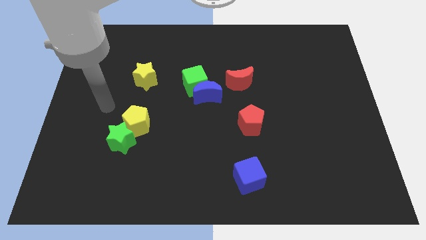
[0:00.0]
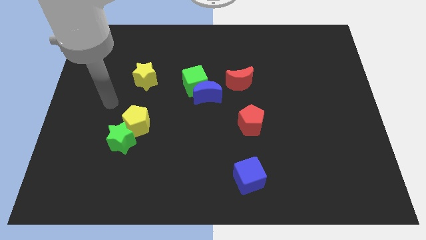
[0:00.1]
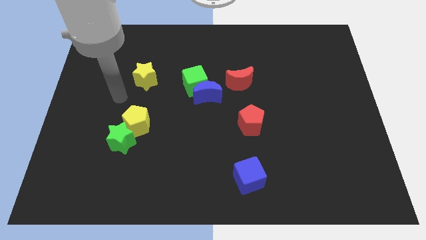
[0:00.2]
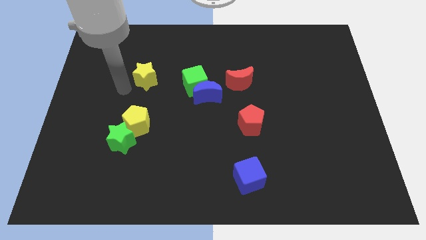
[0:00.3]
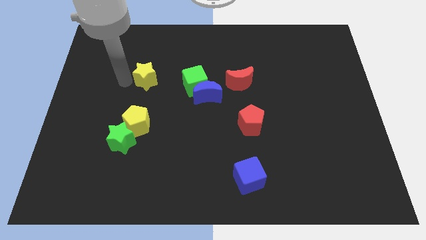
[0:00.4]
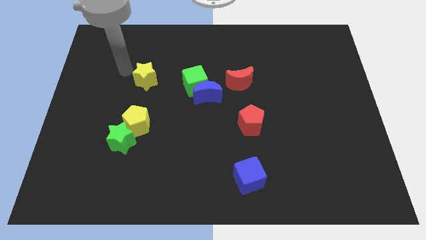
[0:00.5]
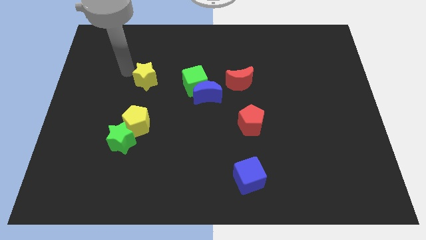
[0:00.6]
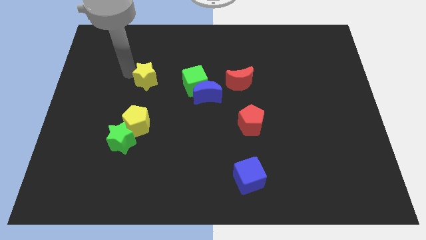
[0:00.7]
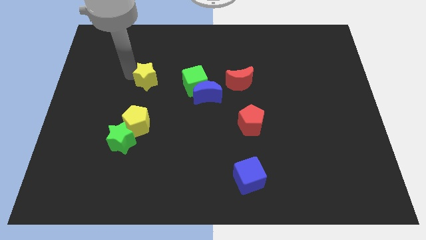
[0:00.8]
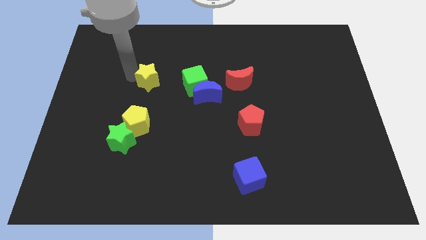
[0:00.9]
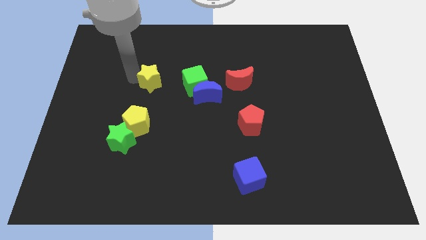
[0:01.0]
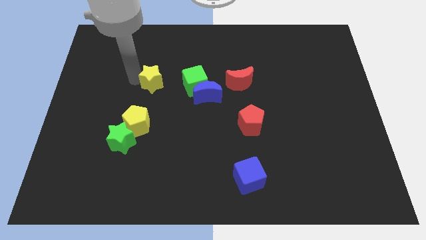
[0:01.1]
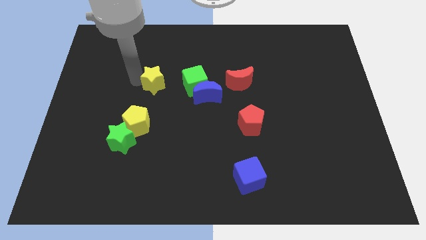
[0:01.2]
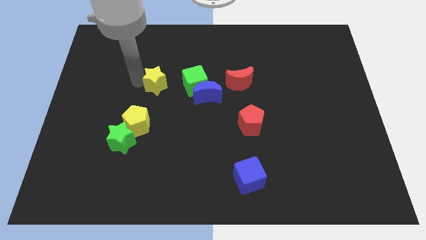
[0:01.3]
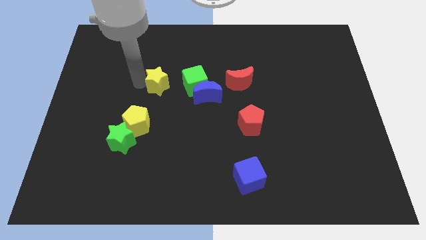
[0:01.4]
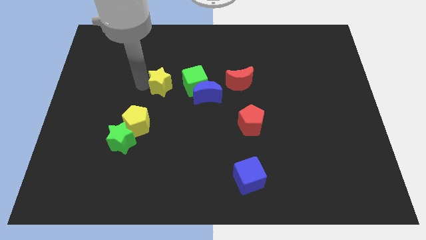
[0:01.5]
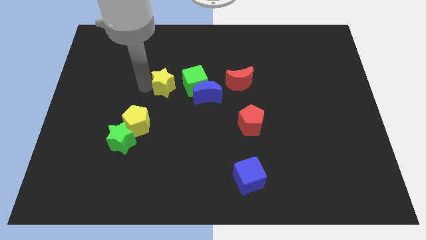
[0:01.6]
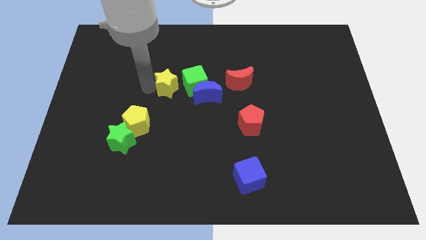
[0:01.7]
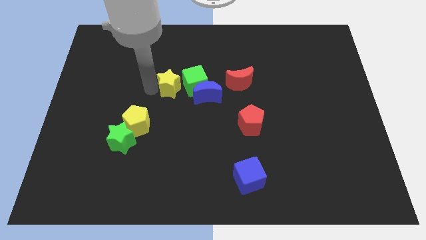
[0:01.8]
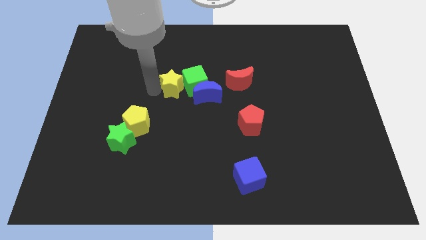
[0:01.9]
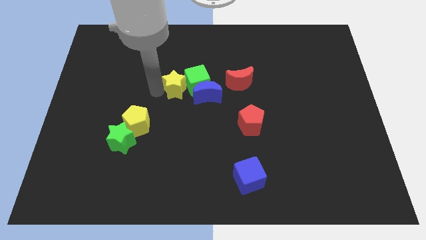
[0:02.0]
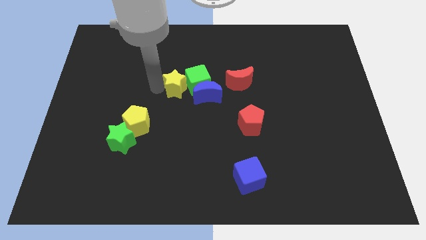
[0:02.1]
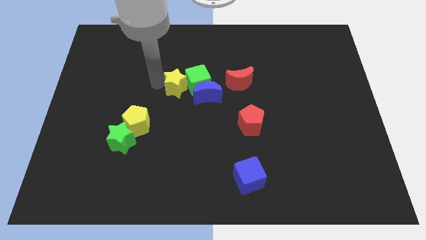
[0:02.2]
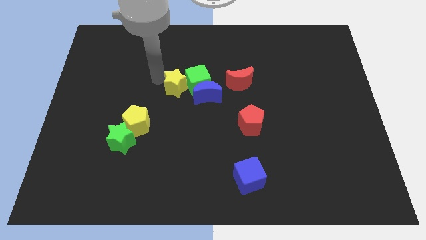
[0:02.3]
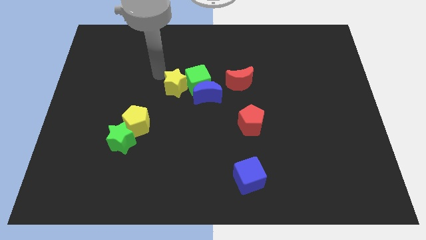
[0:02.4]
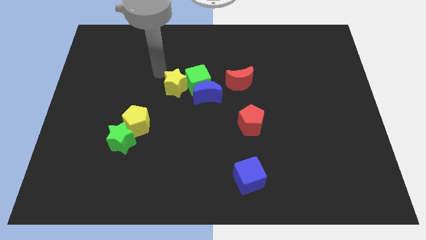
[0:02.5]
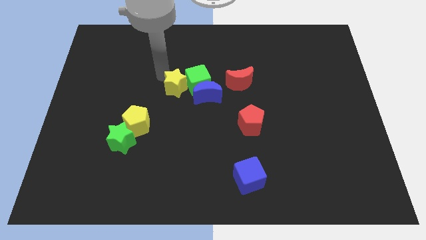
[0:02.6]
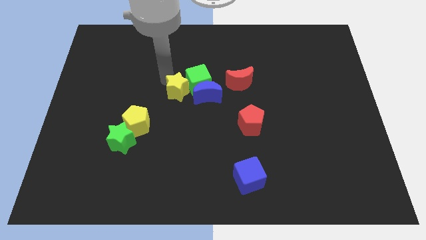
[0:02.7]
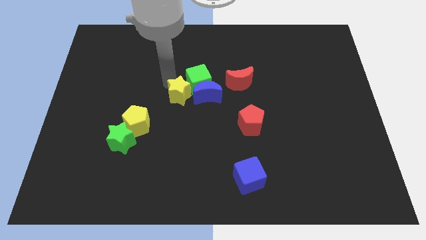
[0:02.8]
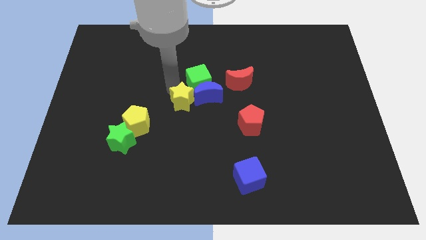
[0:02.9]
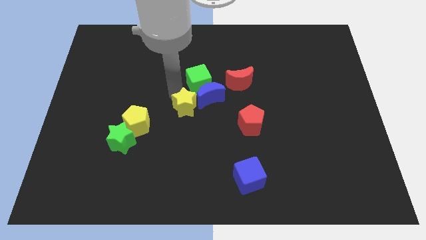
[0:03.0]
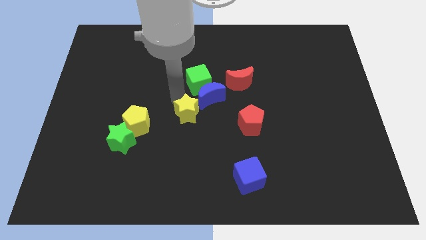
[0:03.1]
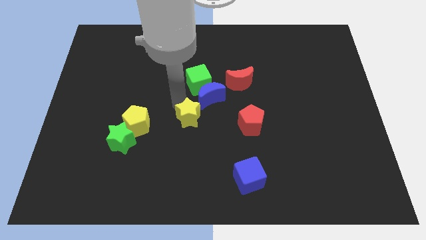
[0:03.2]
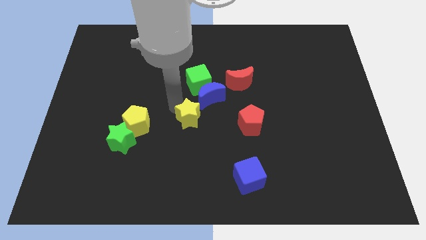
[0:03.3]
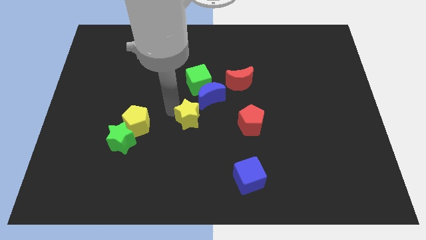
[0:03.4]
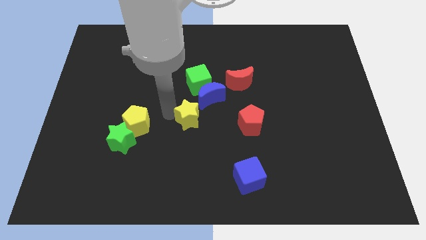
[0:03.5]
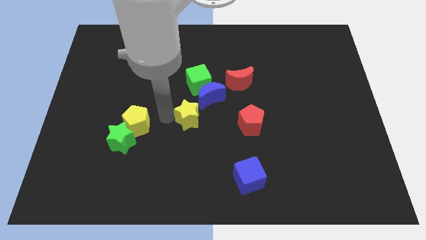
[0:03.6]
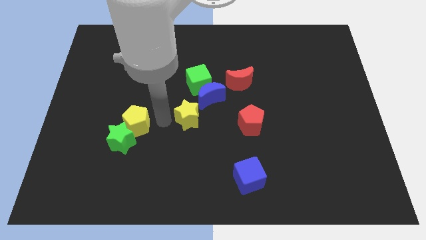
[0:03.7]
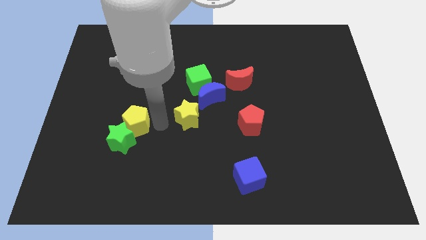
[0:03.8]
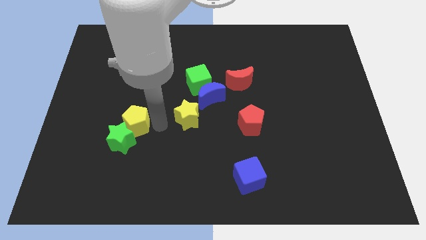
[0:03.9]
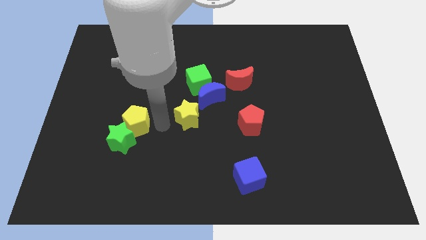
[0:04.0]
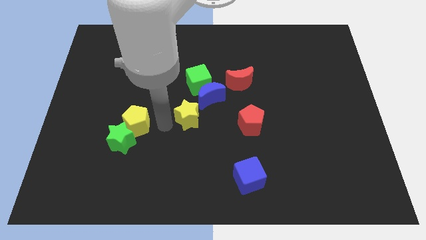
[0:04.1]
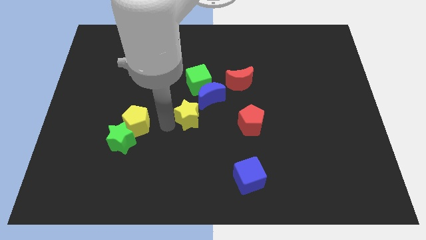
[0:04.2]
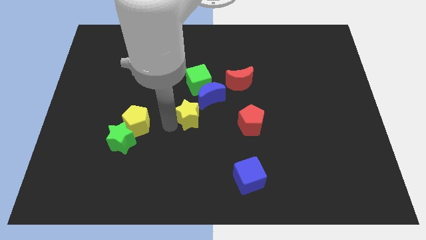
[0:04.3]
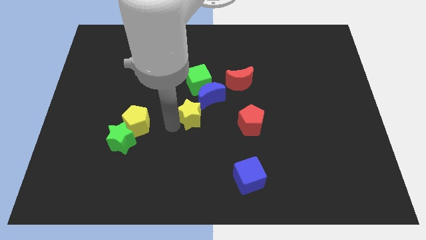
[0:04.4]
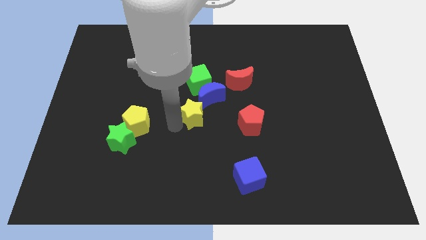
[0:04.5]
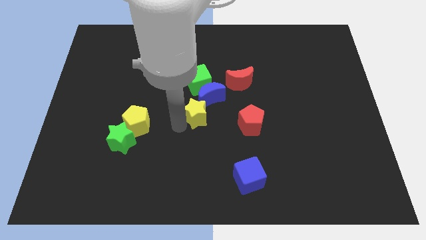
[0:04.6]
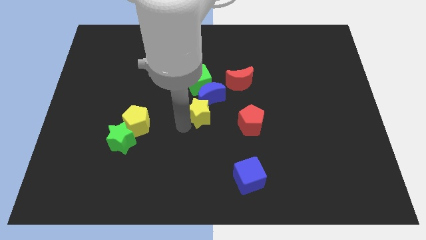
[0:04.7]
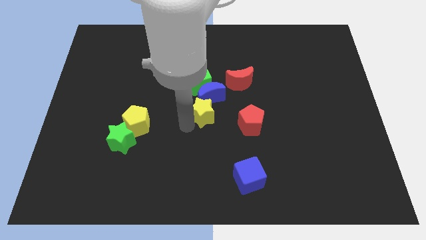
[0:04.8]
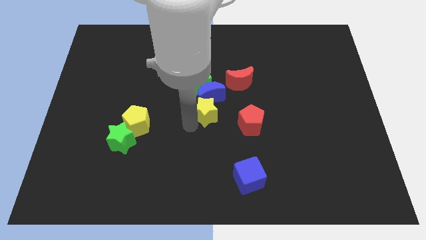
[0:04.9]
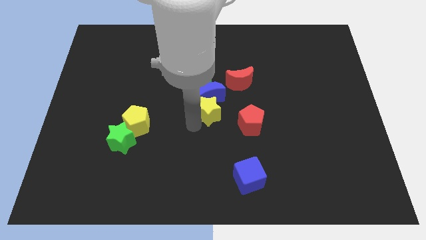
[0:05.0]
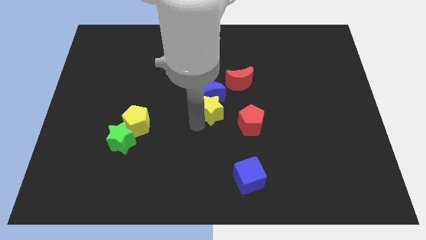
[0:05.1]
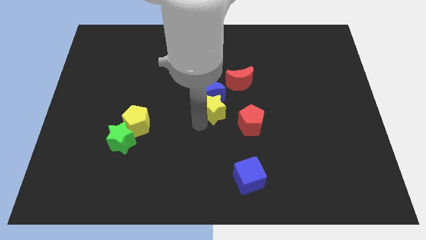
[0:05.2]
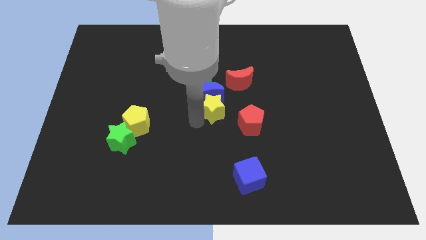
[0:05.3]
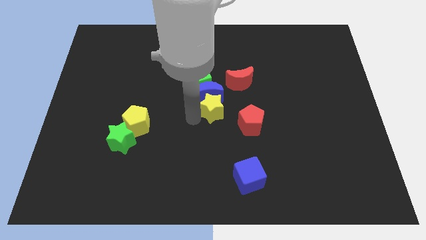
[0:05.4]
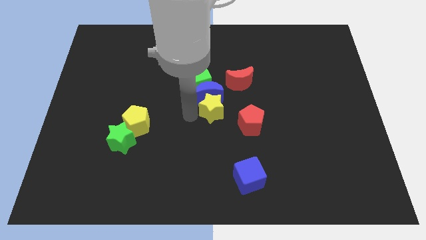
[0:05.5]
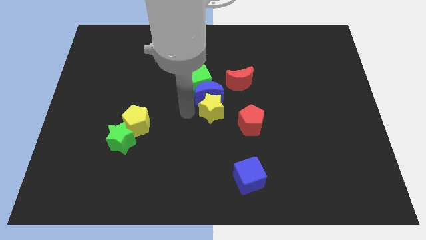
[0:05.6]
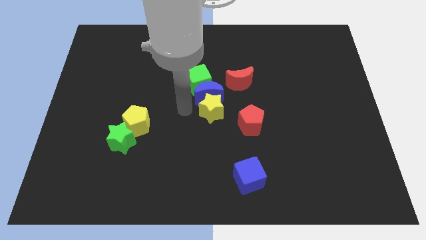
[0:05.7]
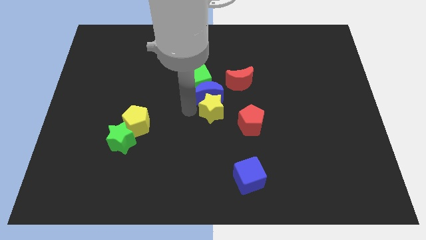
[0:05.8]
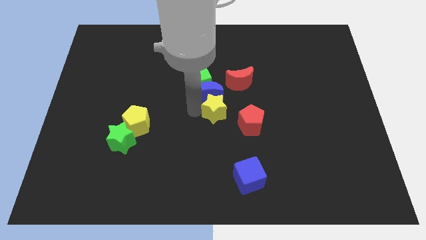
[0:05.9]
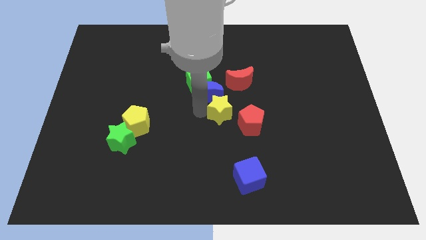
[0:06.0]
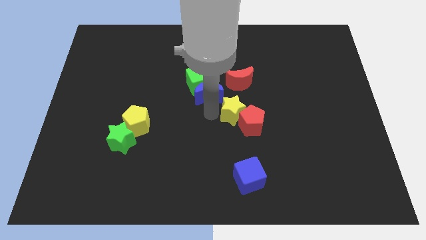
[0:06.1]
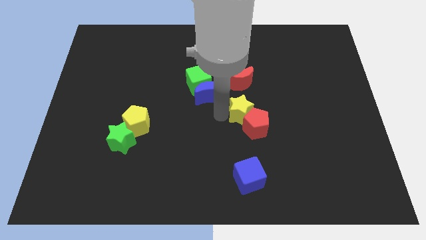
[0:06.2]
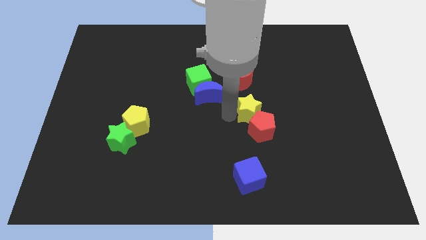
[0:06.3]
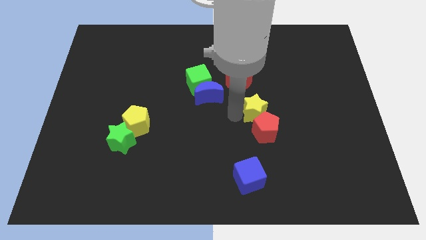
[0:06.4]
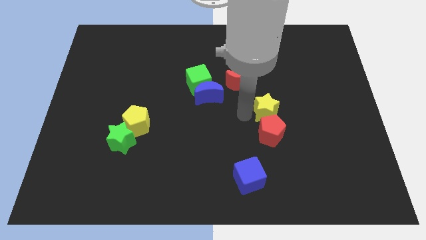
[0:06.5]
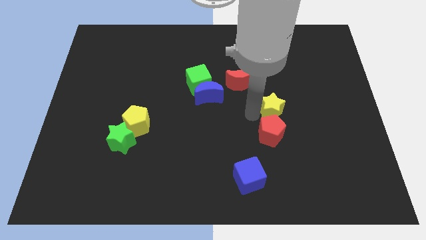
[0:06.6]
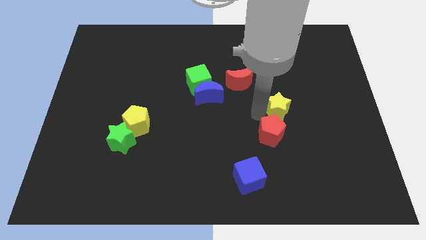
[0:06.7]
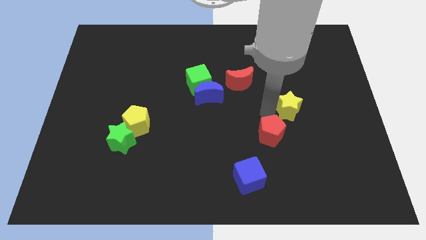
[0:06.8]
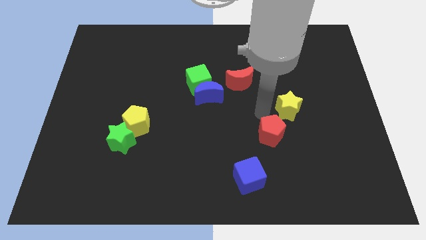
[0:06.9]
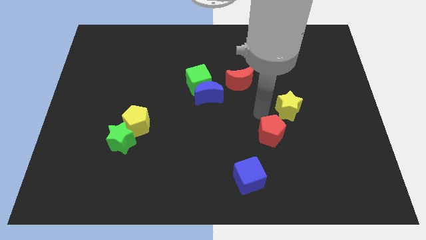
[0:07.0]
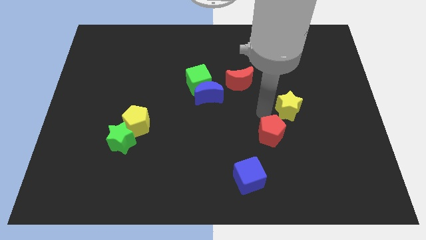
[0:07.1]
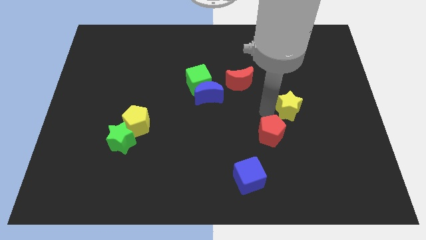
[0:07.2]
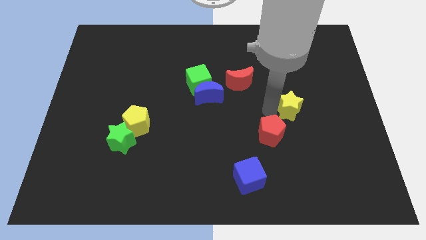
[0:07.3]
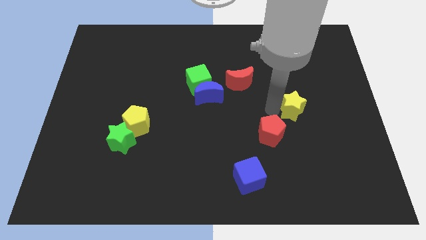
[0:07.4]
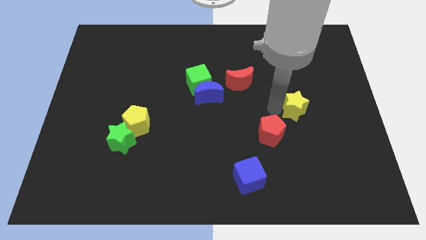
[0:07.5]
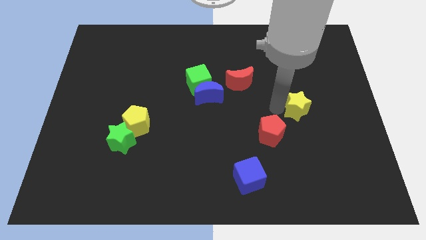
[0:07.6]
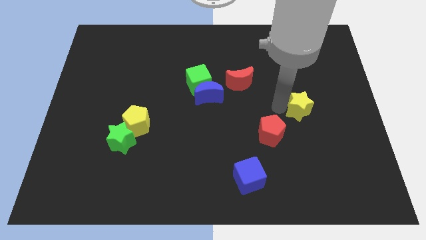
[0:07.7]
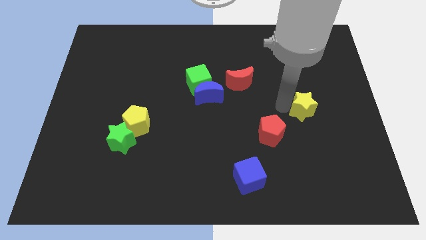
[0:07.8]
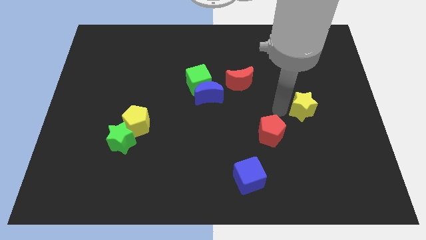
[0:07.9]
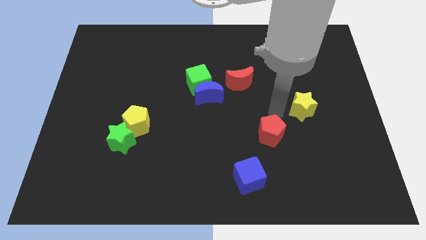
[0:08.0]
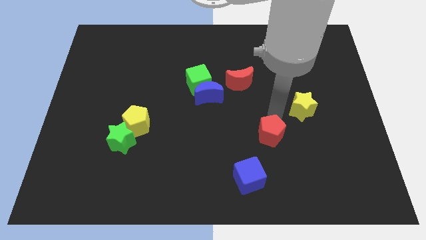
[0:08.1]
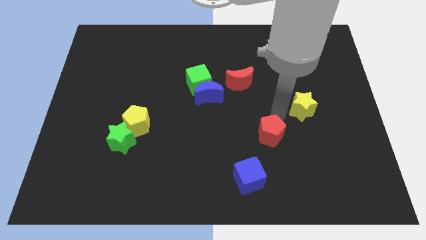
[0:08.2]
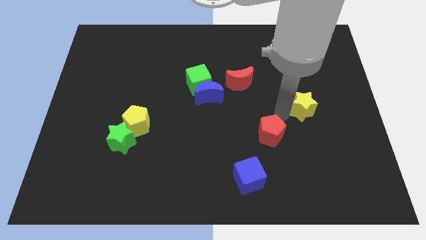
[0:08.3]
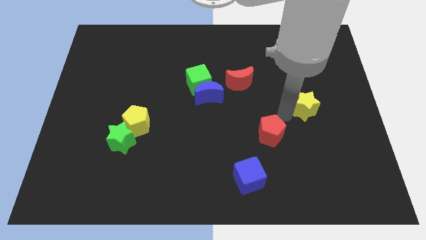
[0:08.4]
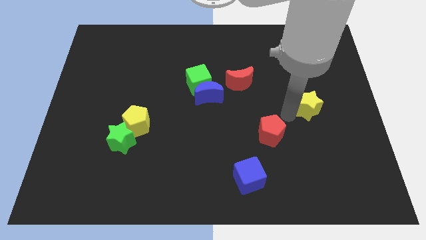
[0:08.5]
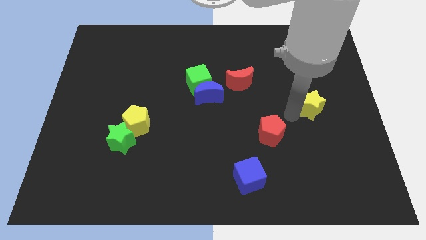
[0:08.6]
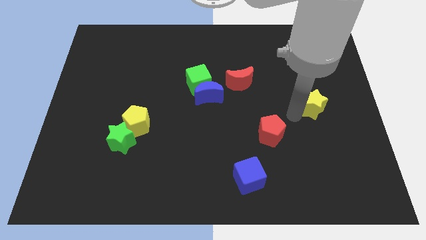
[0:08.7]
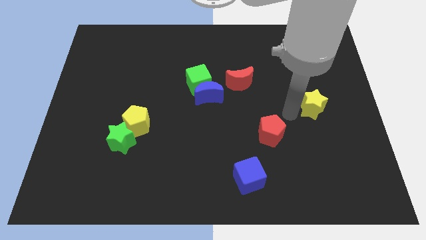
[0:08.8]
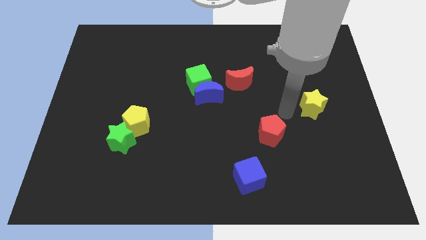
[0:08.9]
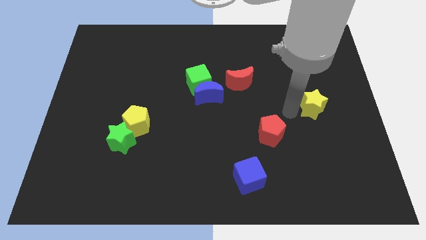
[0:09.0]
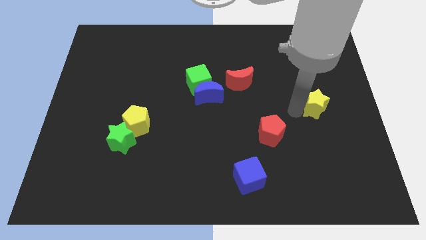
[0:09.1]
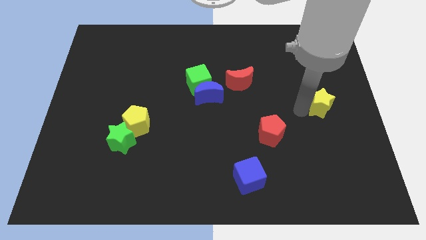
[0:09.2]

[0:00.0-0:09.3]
slide the yellow star to the right side of the board
